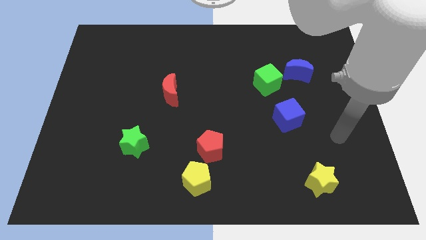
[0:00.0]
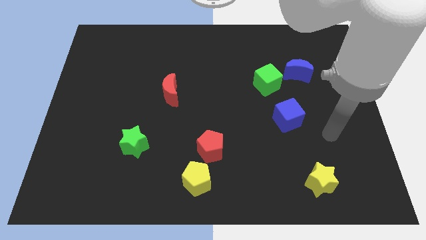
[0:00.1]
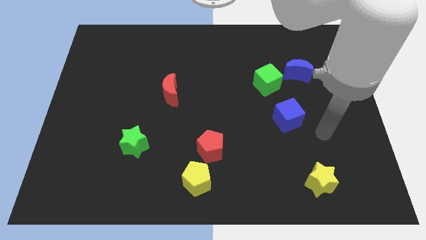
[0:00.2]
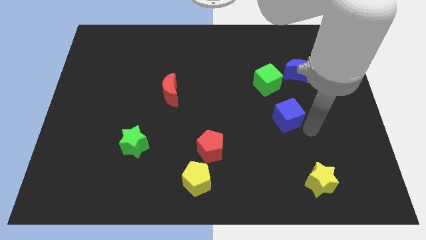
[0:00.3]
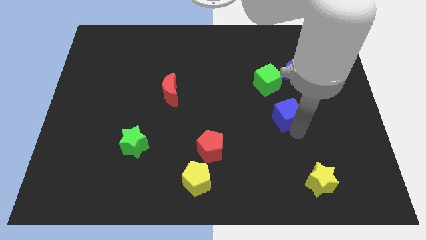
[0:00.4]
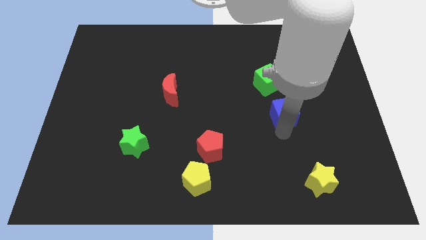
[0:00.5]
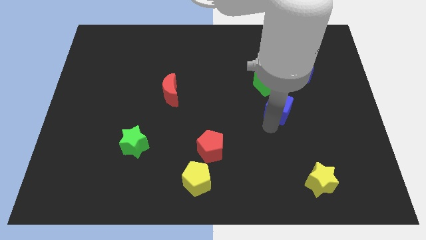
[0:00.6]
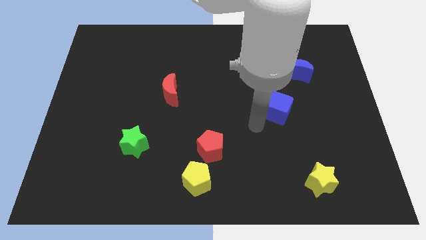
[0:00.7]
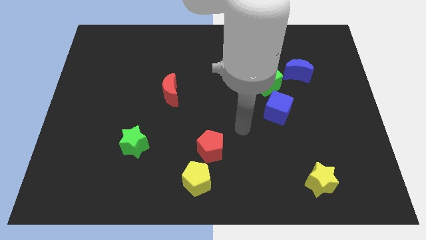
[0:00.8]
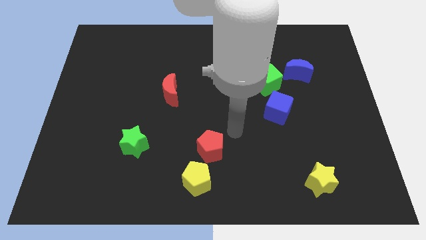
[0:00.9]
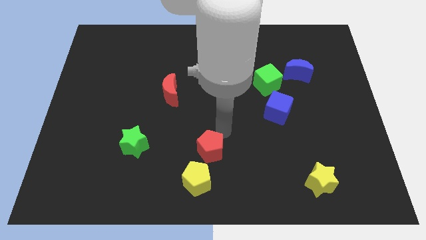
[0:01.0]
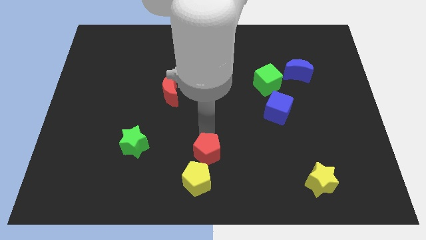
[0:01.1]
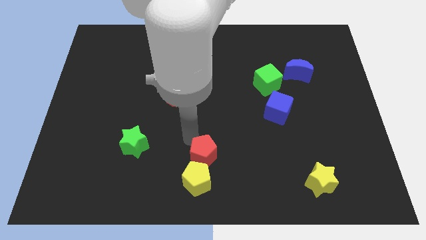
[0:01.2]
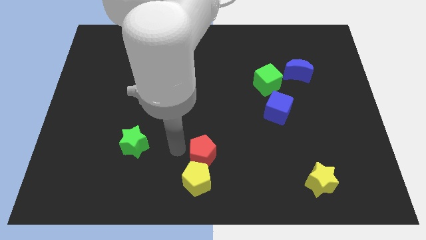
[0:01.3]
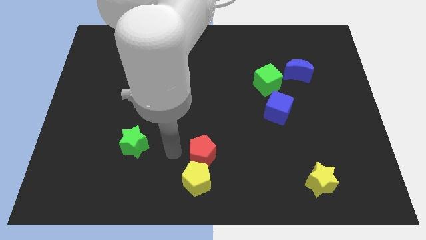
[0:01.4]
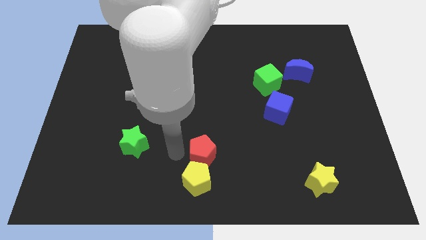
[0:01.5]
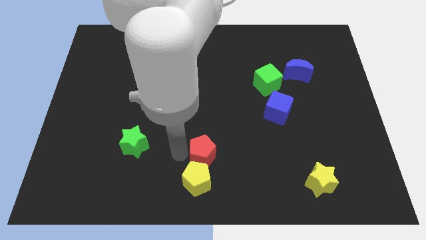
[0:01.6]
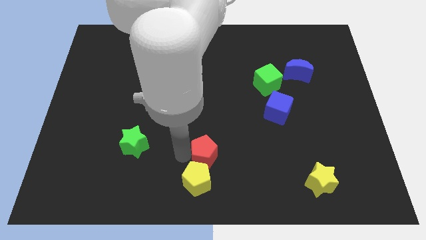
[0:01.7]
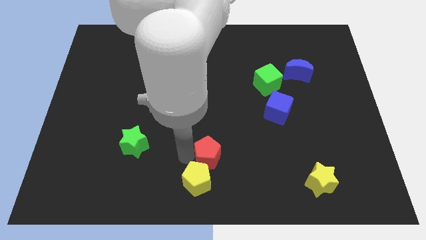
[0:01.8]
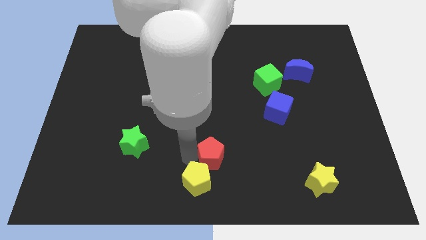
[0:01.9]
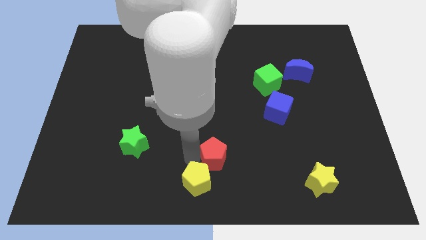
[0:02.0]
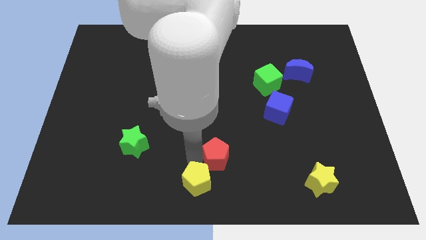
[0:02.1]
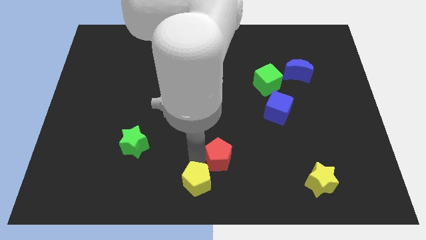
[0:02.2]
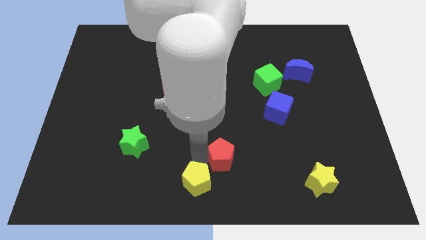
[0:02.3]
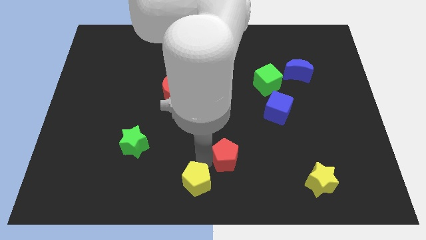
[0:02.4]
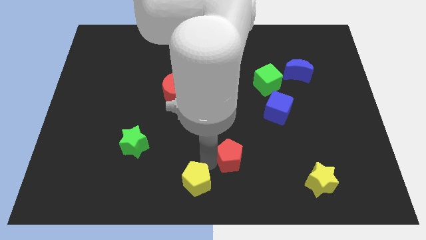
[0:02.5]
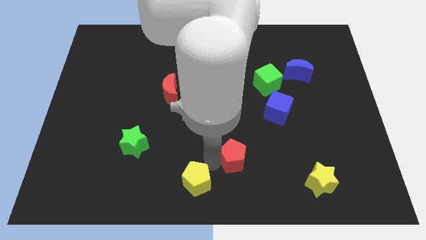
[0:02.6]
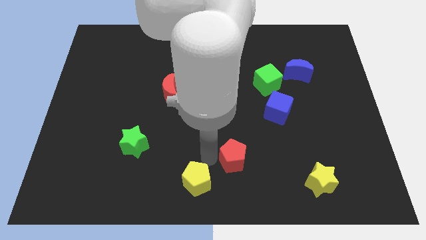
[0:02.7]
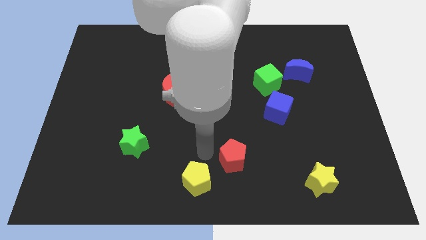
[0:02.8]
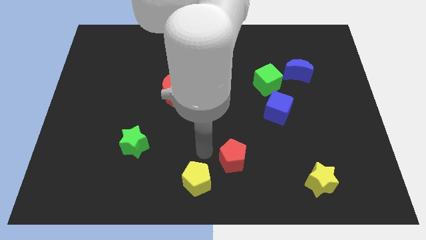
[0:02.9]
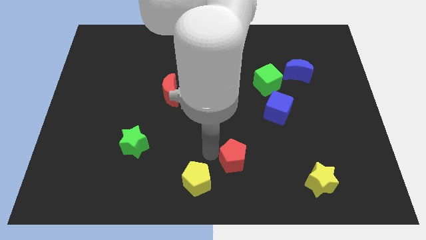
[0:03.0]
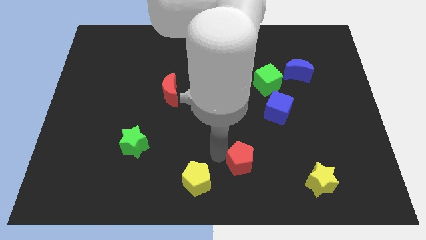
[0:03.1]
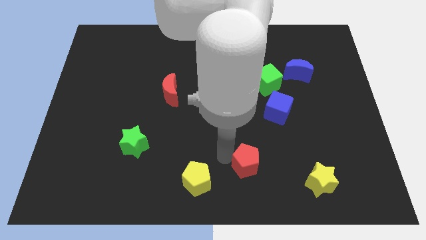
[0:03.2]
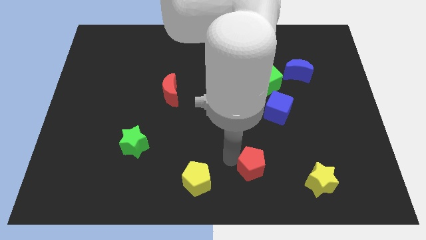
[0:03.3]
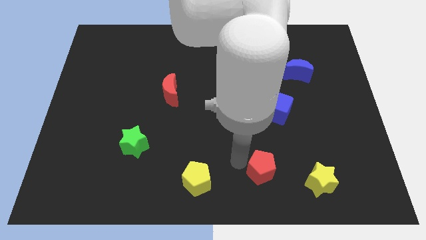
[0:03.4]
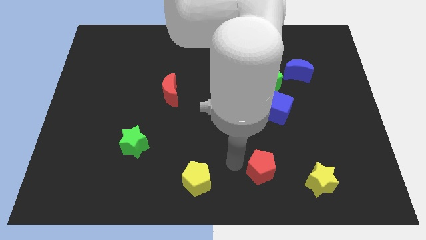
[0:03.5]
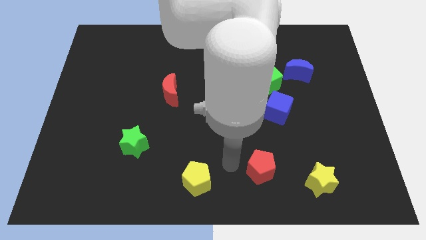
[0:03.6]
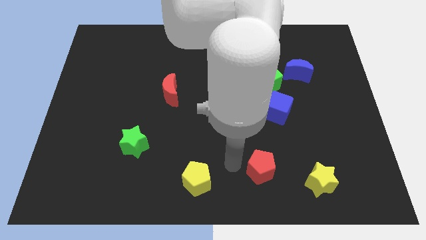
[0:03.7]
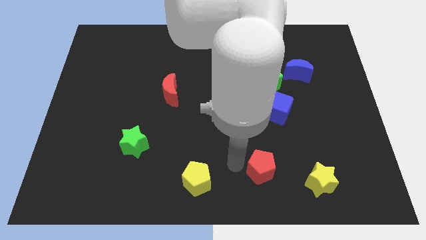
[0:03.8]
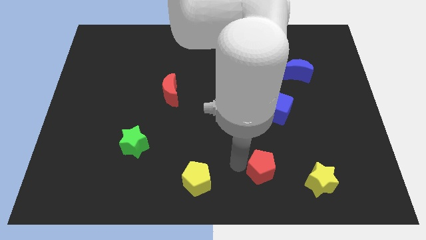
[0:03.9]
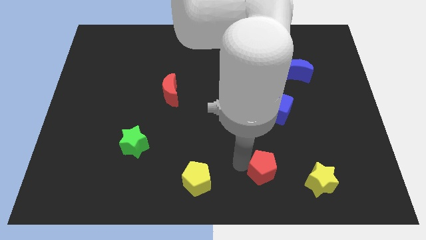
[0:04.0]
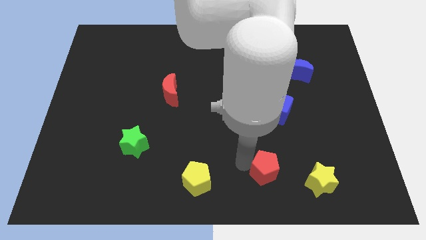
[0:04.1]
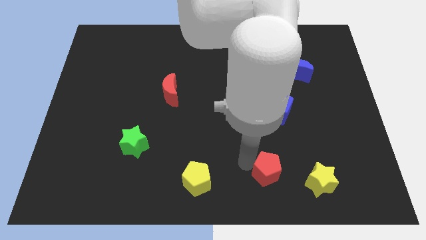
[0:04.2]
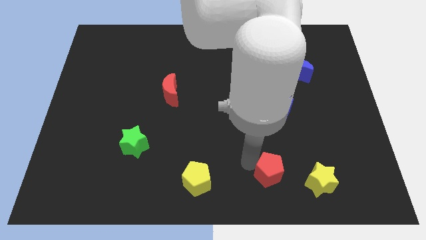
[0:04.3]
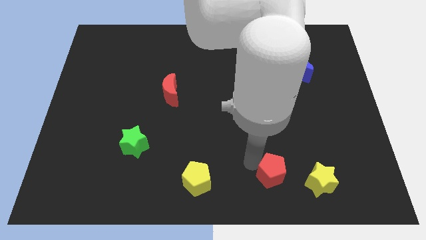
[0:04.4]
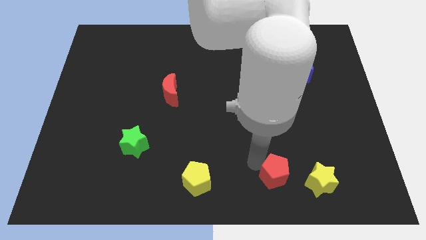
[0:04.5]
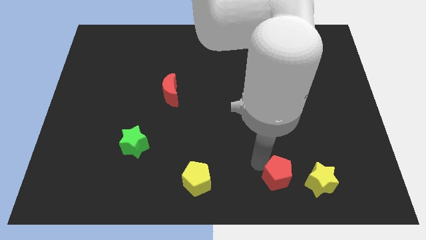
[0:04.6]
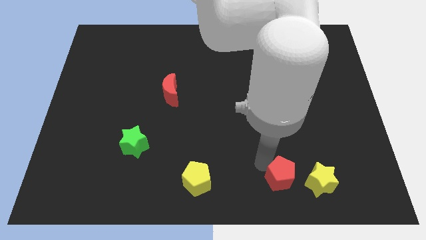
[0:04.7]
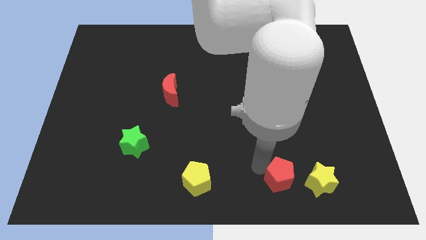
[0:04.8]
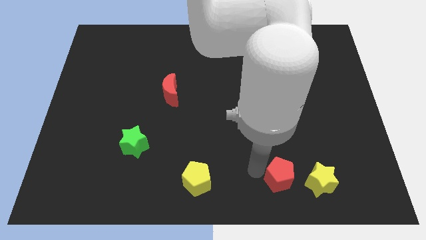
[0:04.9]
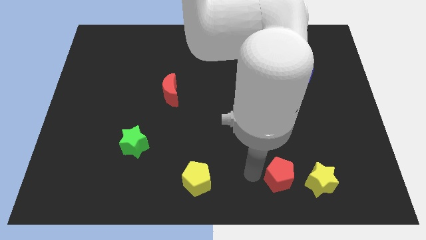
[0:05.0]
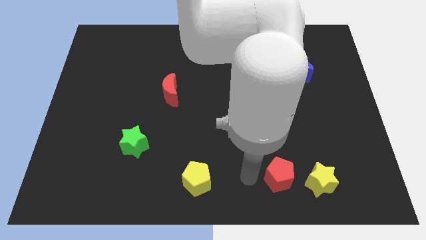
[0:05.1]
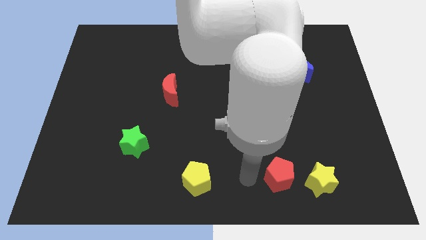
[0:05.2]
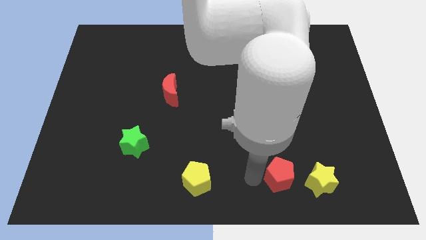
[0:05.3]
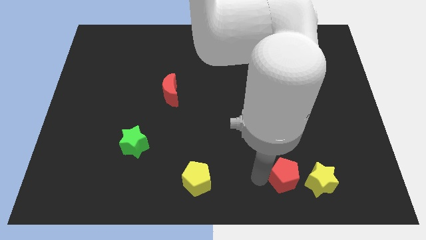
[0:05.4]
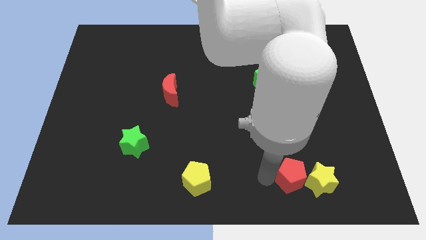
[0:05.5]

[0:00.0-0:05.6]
slide the red pentagon close to the yellow star

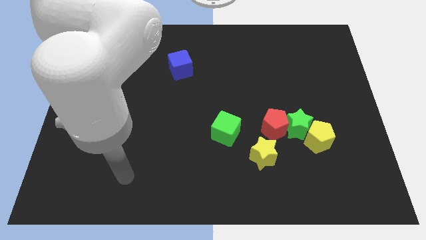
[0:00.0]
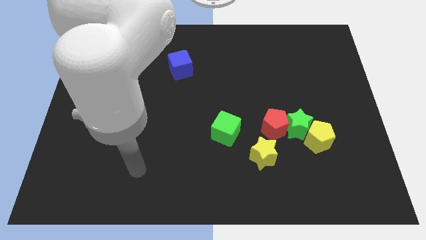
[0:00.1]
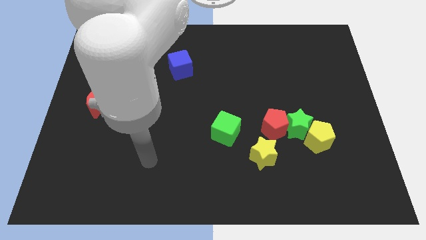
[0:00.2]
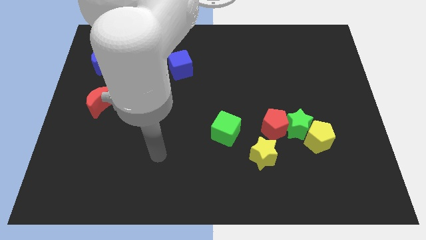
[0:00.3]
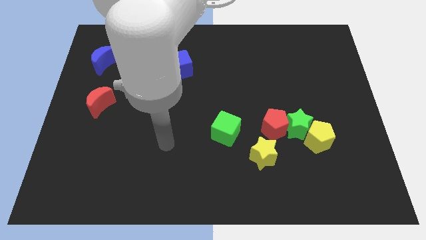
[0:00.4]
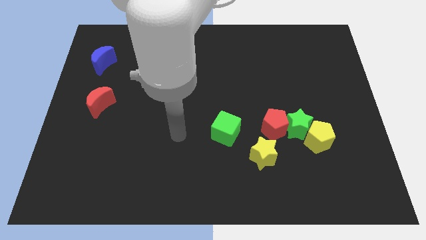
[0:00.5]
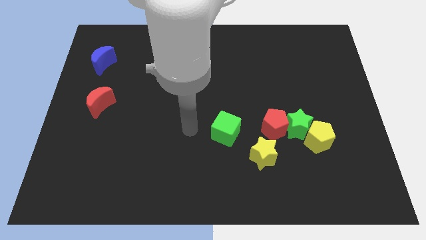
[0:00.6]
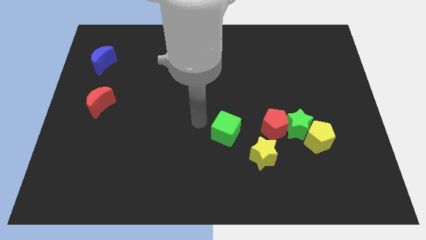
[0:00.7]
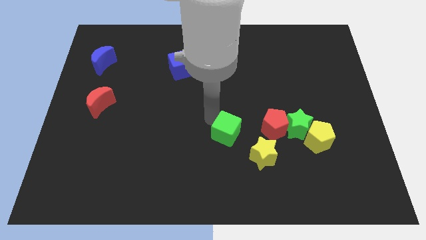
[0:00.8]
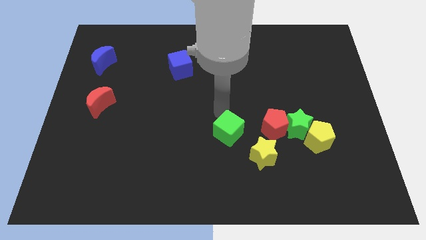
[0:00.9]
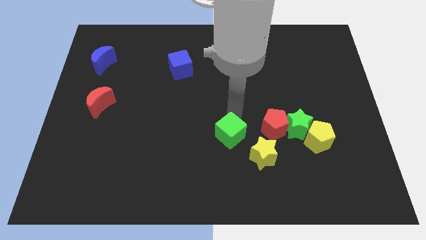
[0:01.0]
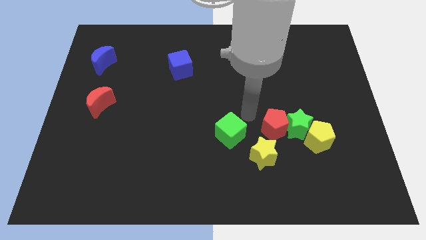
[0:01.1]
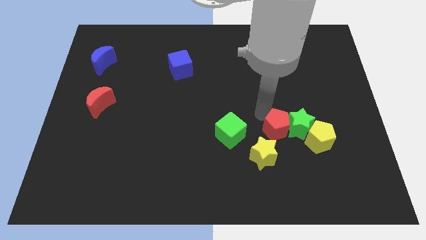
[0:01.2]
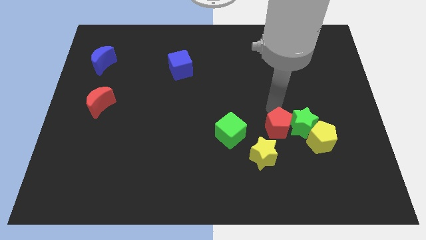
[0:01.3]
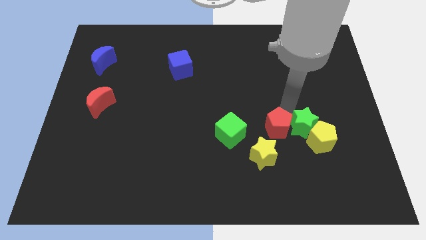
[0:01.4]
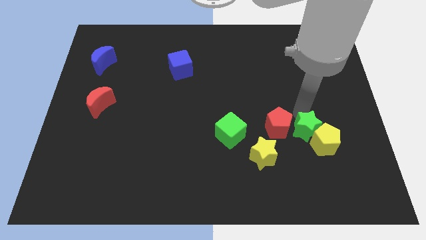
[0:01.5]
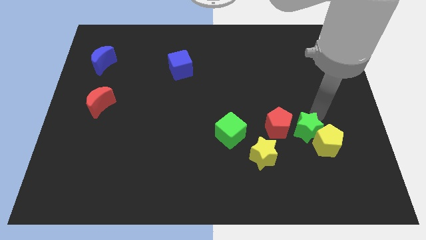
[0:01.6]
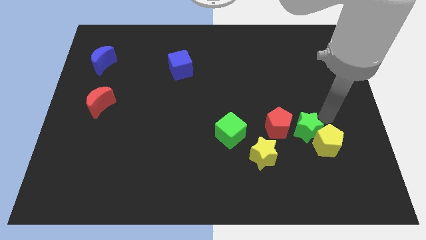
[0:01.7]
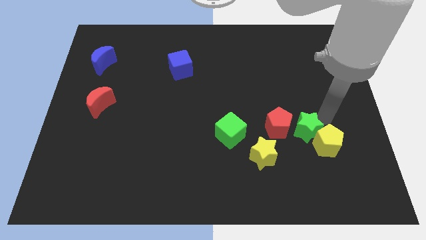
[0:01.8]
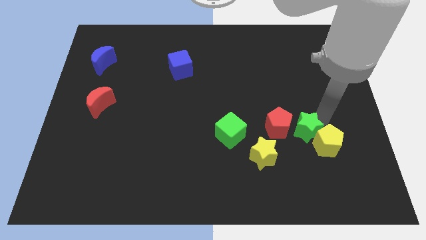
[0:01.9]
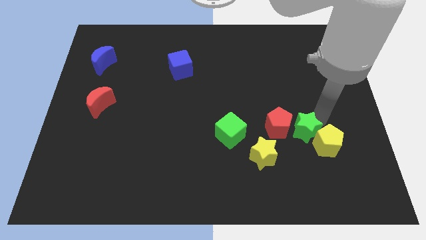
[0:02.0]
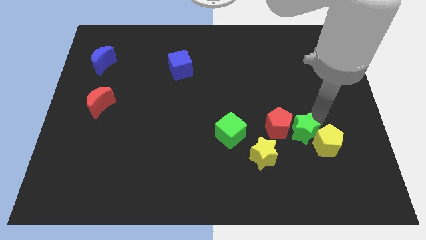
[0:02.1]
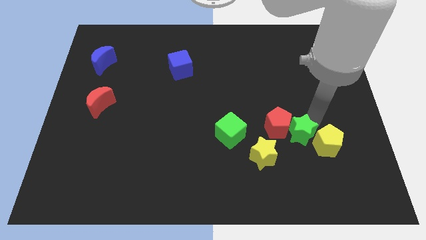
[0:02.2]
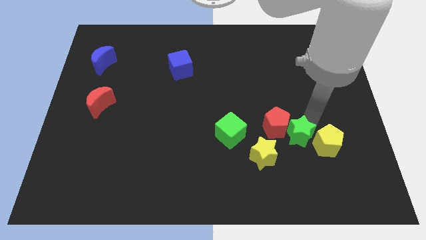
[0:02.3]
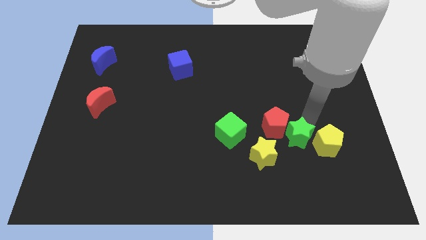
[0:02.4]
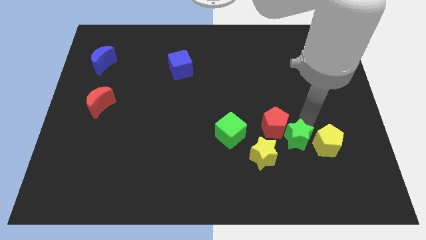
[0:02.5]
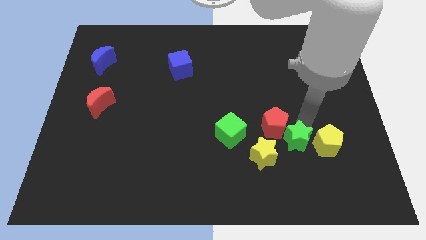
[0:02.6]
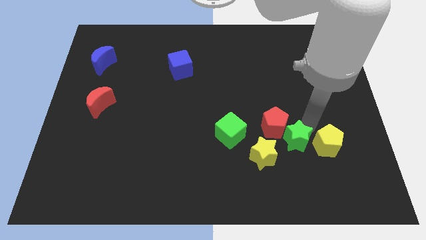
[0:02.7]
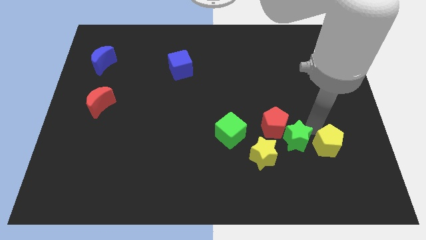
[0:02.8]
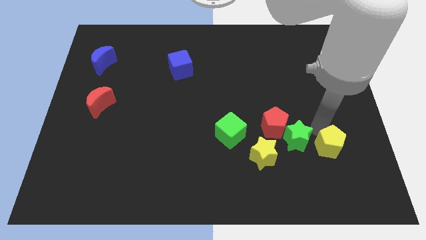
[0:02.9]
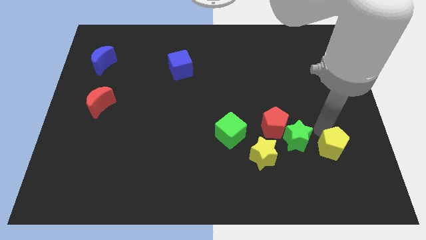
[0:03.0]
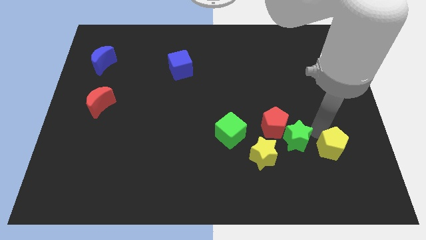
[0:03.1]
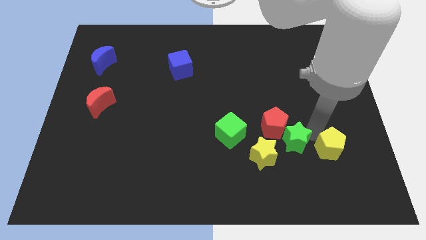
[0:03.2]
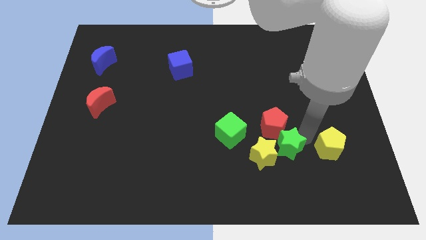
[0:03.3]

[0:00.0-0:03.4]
put the green star towards the yellow star
